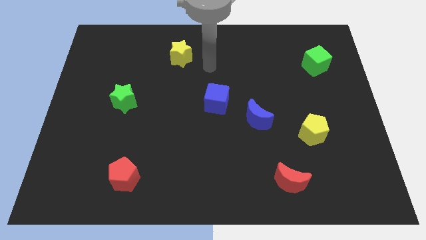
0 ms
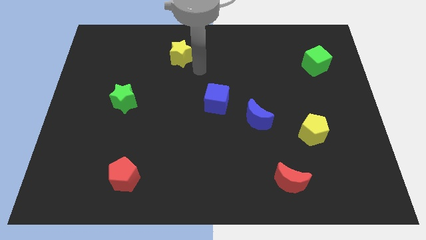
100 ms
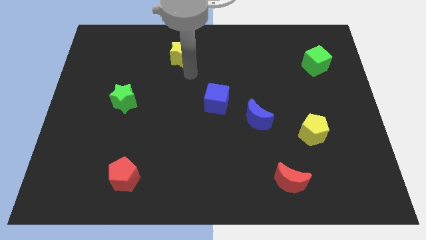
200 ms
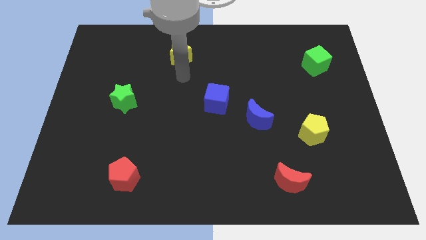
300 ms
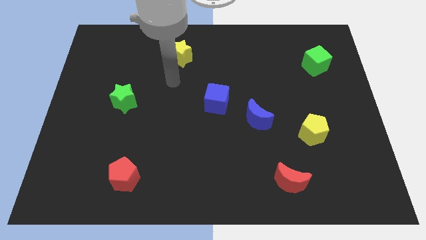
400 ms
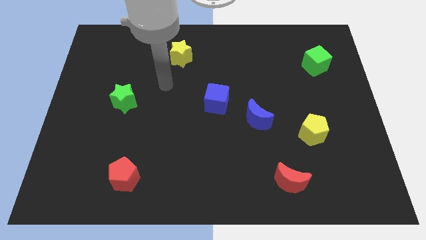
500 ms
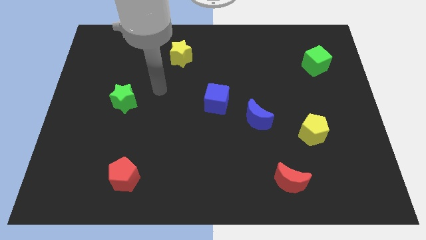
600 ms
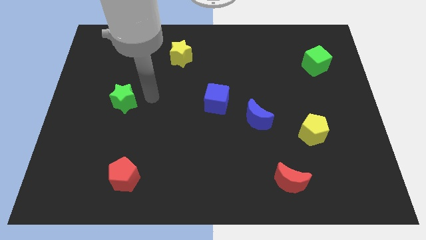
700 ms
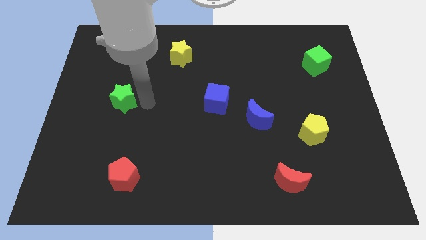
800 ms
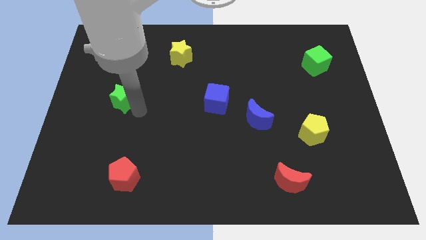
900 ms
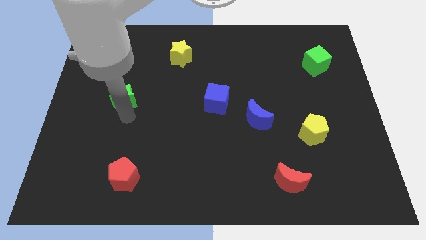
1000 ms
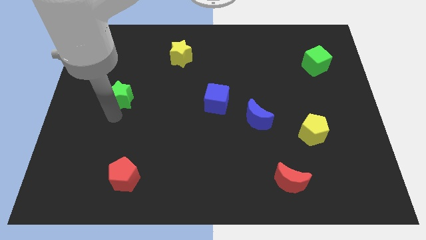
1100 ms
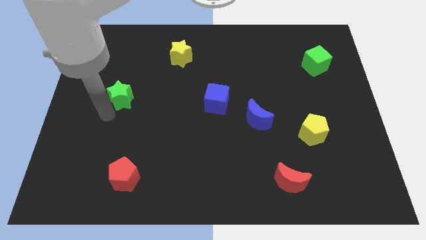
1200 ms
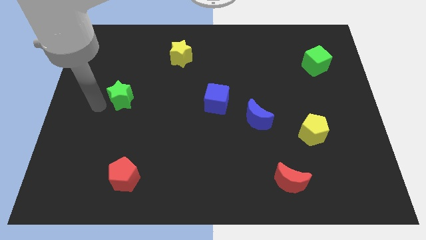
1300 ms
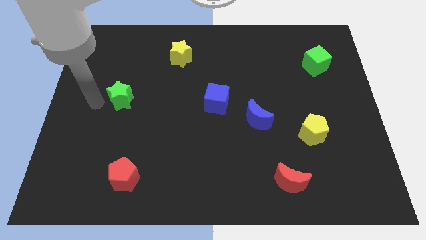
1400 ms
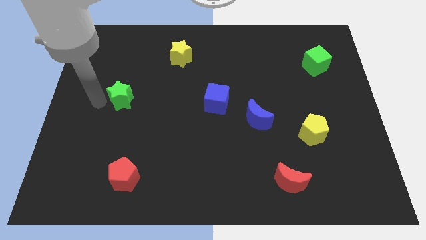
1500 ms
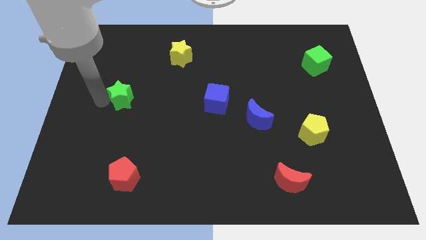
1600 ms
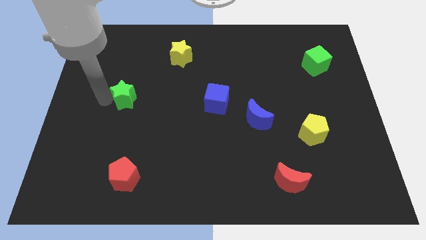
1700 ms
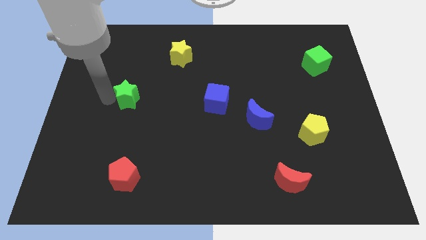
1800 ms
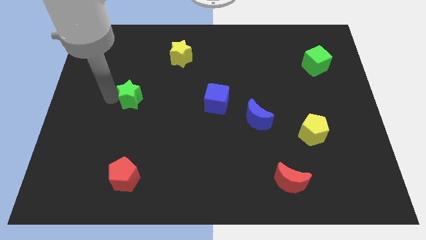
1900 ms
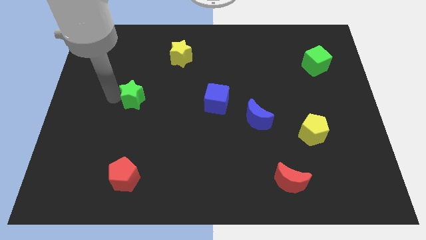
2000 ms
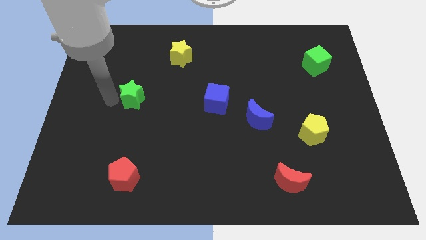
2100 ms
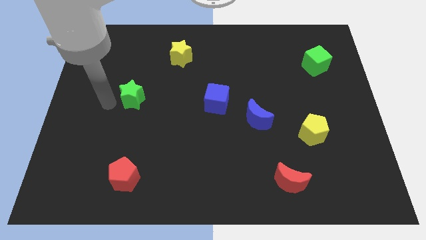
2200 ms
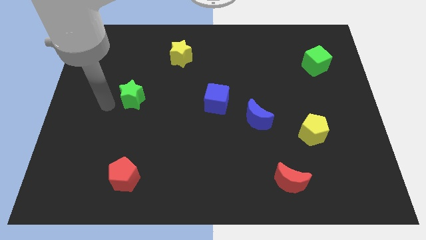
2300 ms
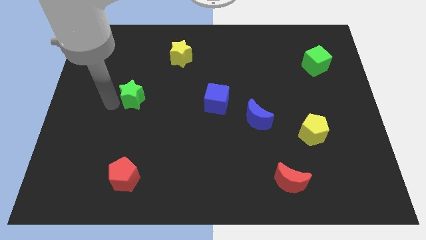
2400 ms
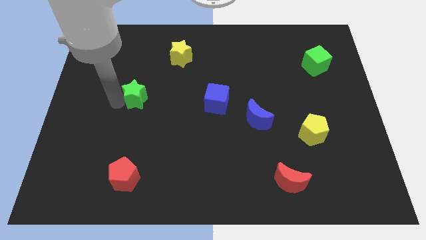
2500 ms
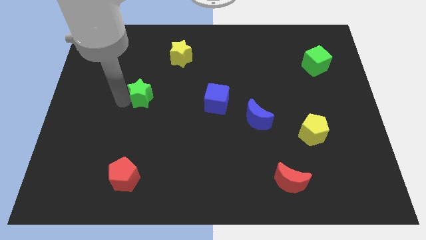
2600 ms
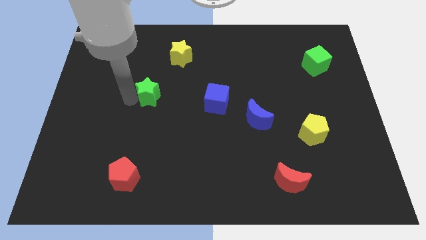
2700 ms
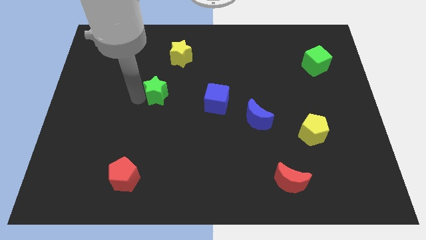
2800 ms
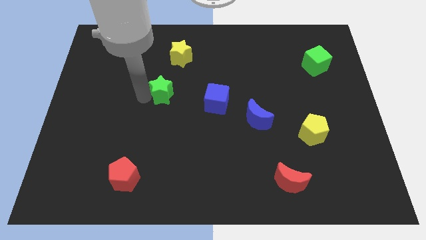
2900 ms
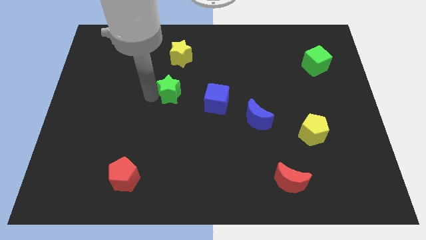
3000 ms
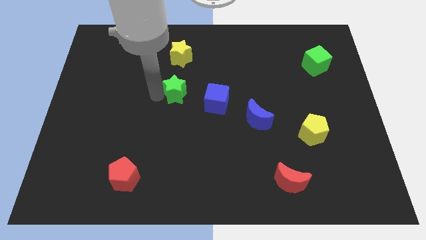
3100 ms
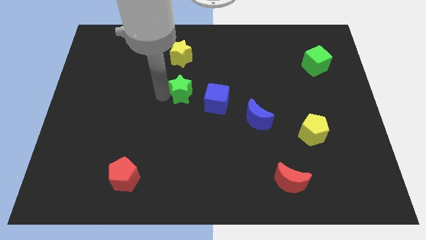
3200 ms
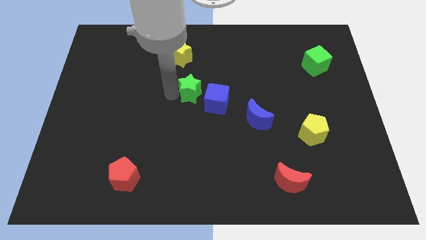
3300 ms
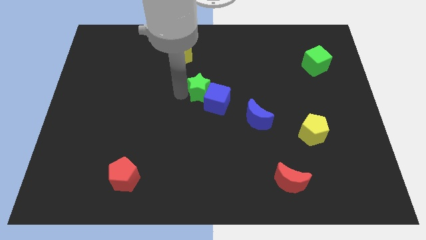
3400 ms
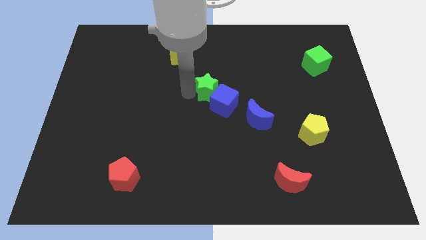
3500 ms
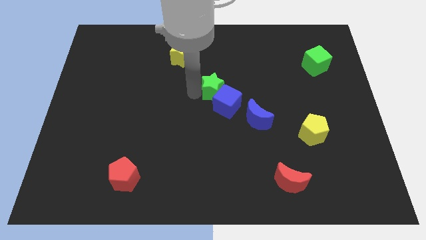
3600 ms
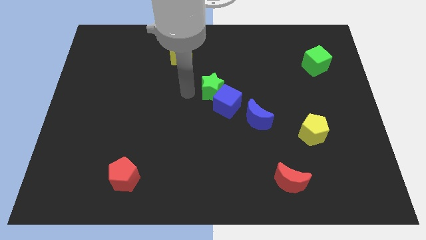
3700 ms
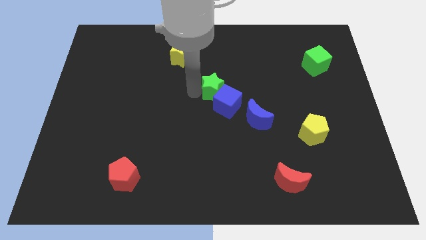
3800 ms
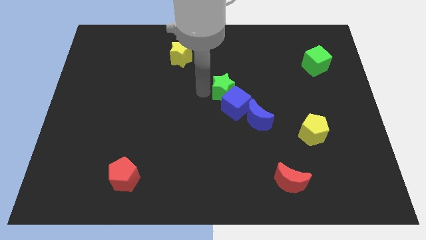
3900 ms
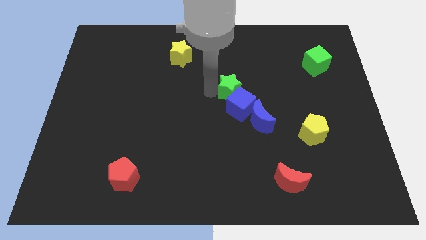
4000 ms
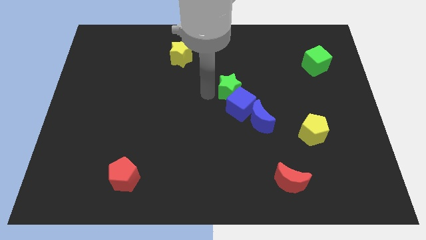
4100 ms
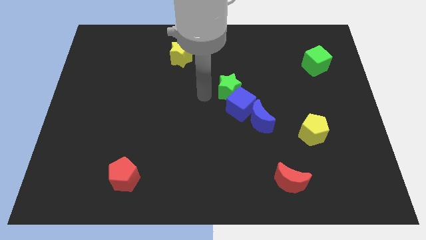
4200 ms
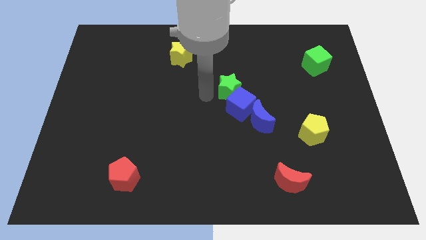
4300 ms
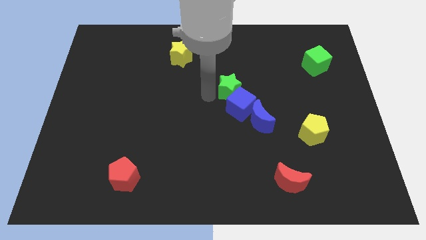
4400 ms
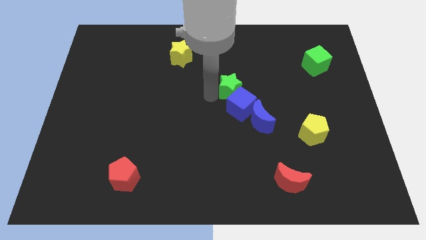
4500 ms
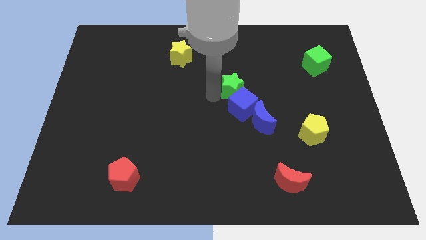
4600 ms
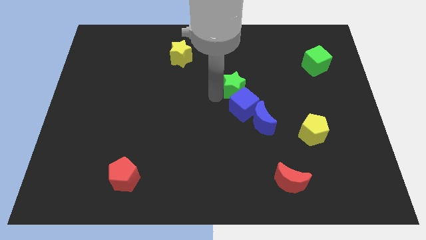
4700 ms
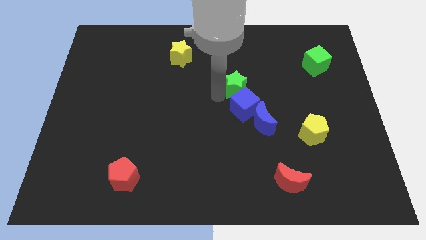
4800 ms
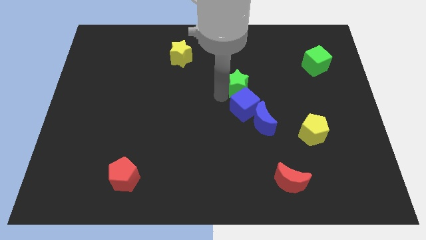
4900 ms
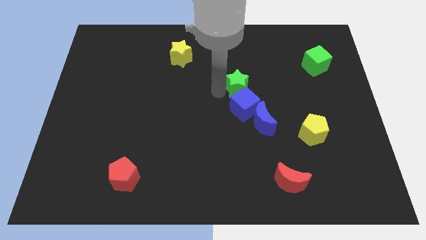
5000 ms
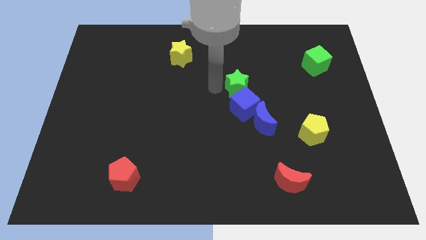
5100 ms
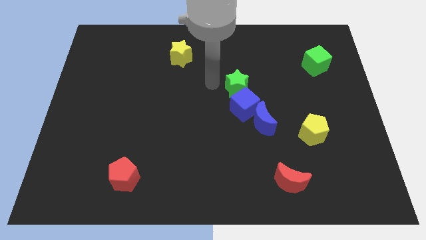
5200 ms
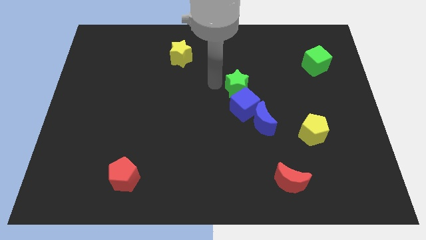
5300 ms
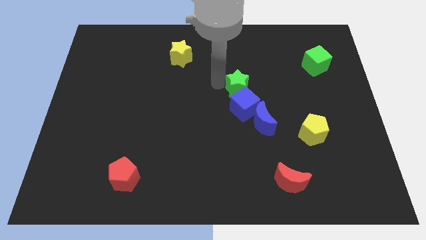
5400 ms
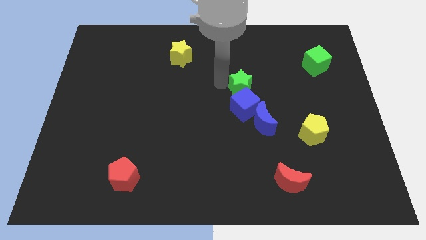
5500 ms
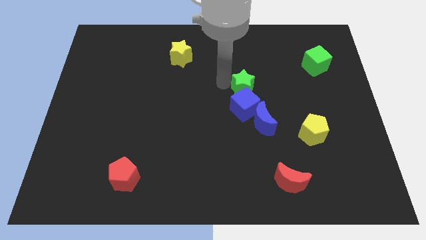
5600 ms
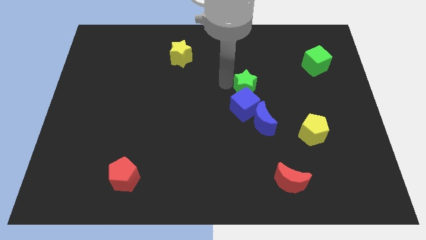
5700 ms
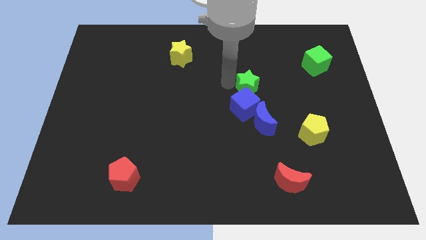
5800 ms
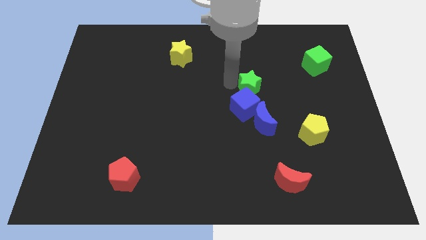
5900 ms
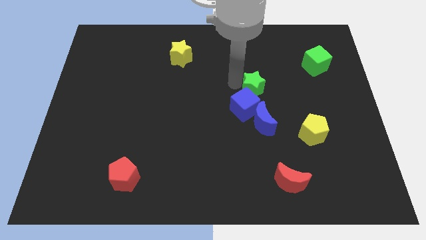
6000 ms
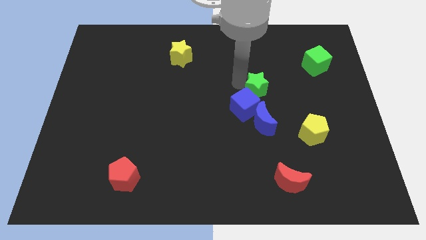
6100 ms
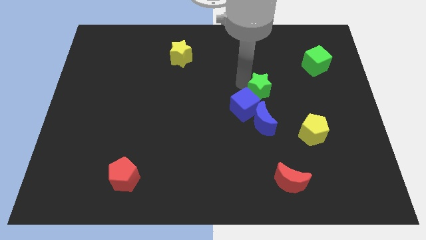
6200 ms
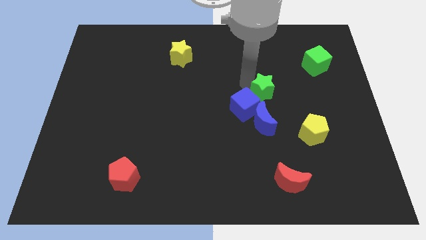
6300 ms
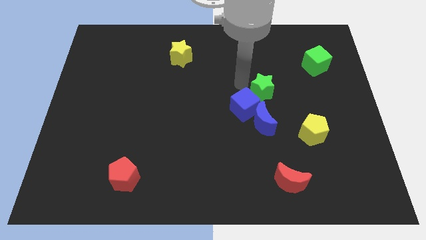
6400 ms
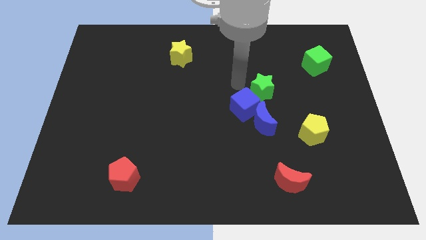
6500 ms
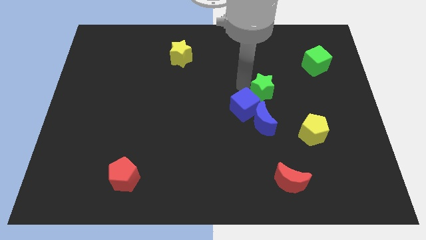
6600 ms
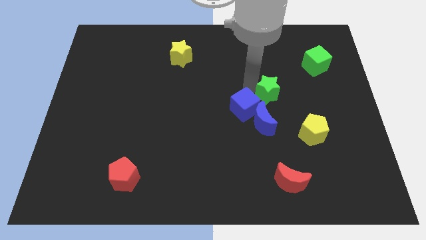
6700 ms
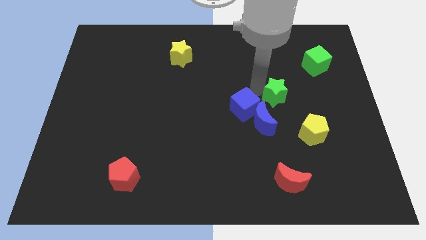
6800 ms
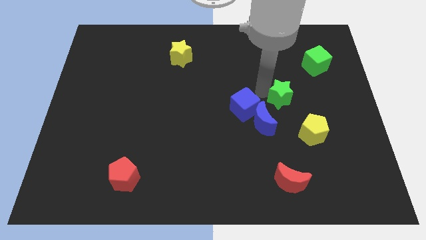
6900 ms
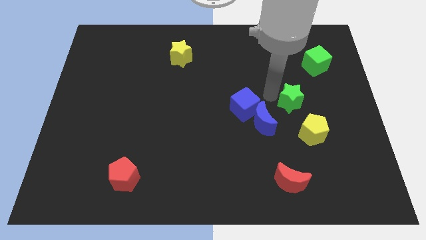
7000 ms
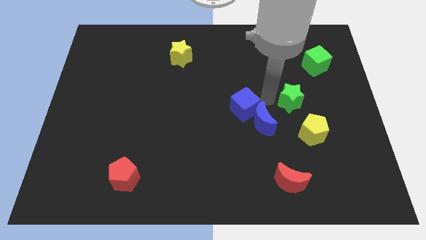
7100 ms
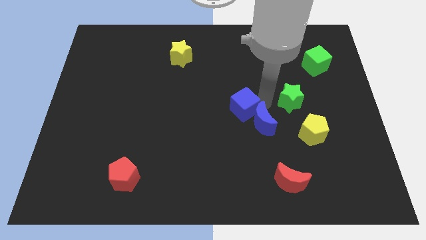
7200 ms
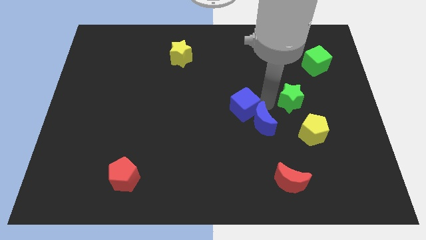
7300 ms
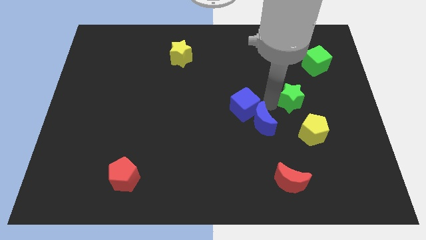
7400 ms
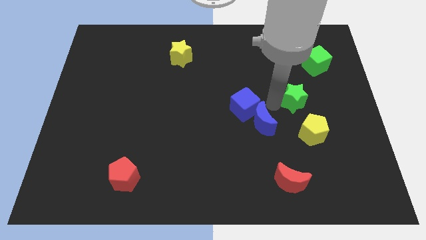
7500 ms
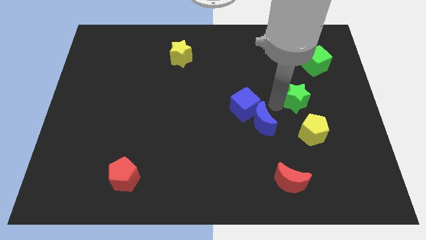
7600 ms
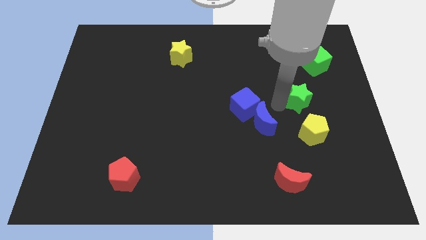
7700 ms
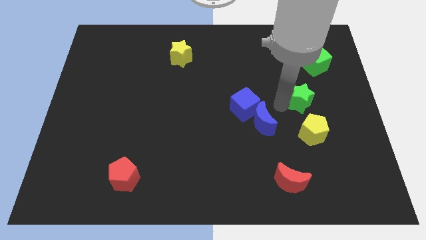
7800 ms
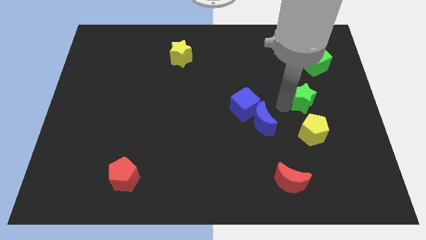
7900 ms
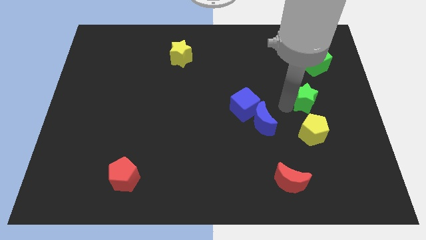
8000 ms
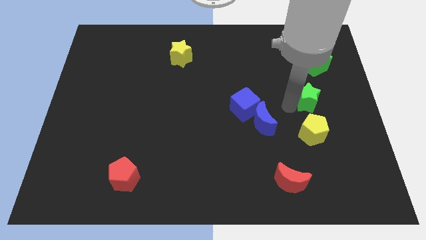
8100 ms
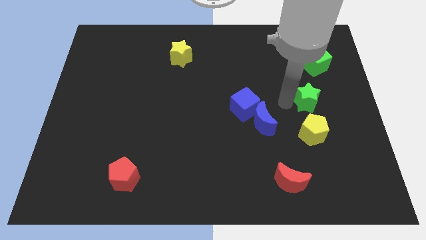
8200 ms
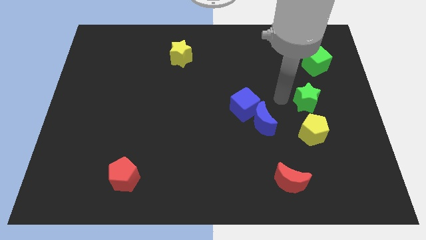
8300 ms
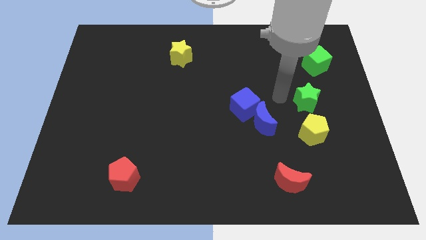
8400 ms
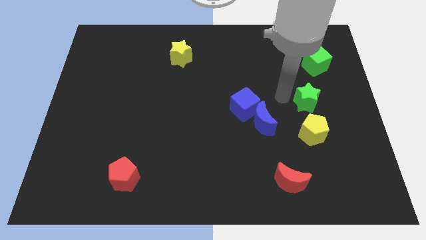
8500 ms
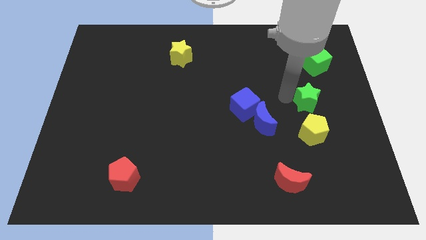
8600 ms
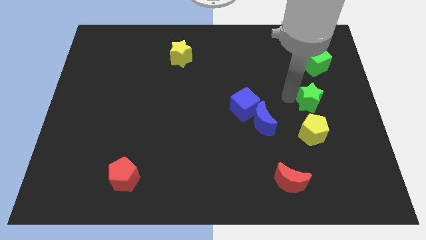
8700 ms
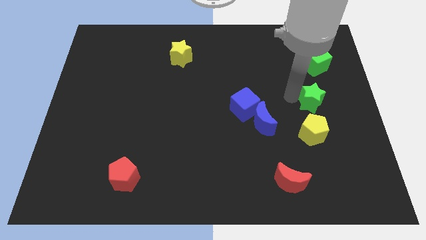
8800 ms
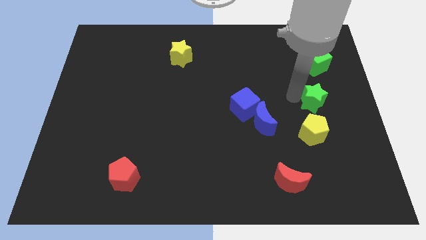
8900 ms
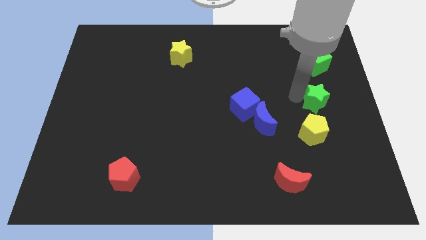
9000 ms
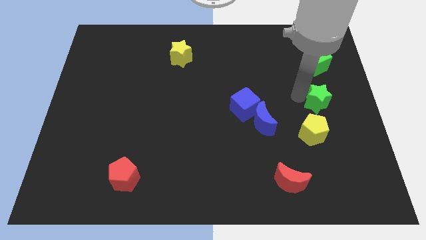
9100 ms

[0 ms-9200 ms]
move the green star to the right side
